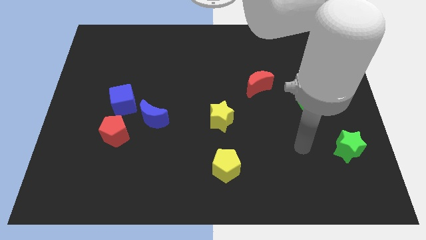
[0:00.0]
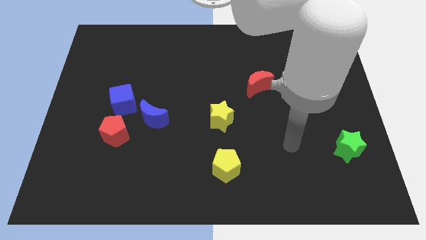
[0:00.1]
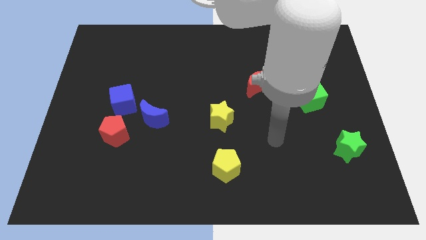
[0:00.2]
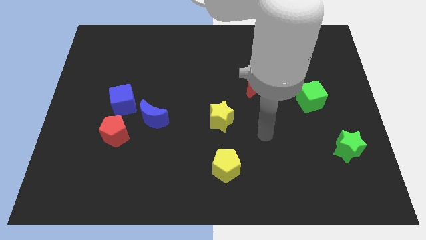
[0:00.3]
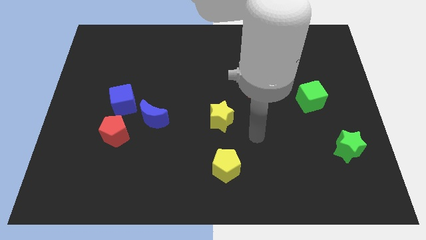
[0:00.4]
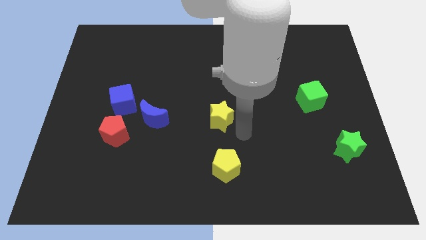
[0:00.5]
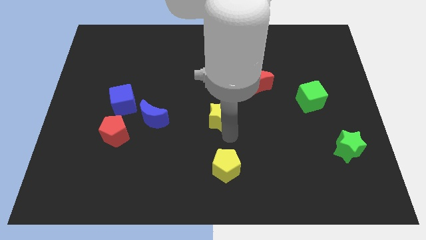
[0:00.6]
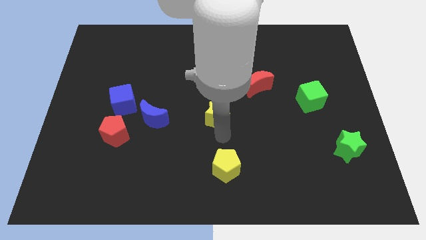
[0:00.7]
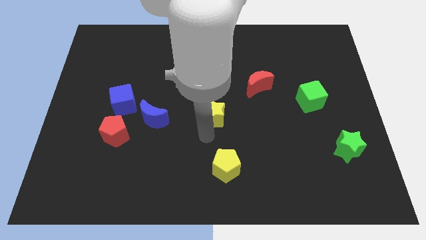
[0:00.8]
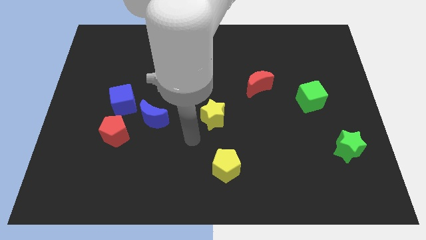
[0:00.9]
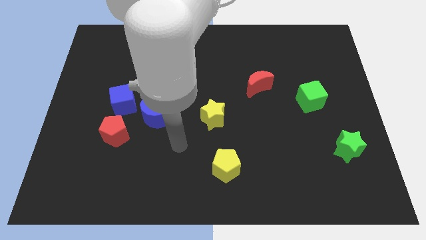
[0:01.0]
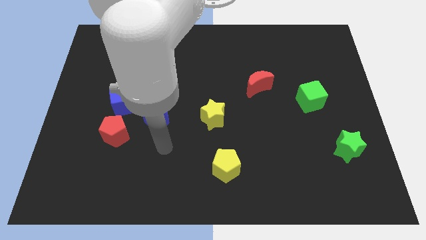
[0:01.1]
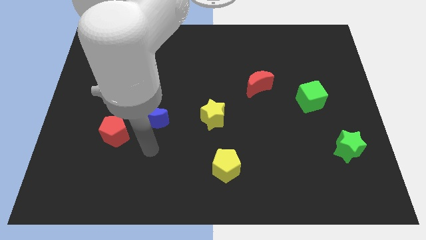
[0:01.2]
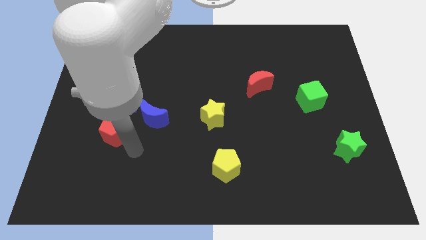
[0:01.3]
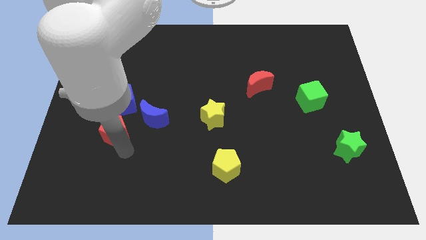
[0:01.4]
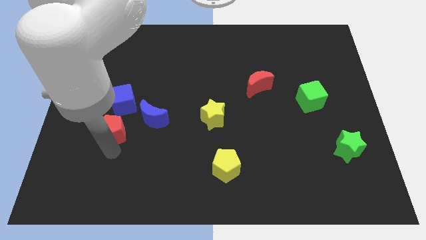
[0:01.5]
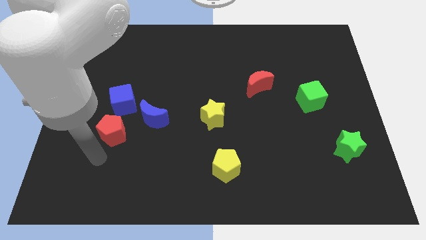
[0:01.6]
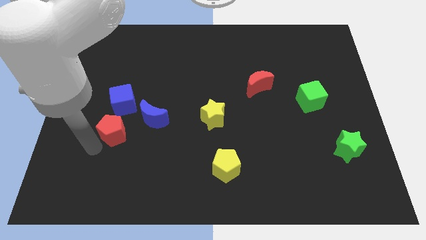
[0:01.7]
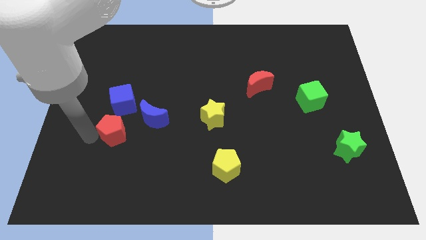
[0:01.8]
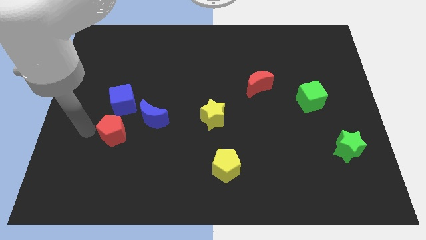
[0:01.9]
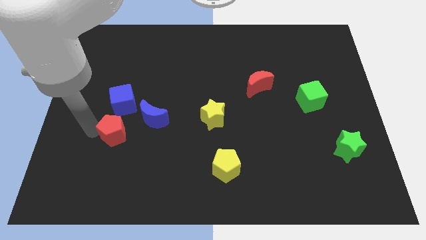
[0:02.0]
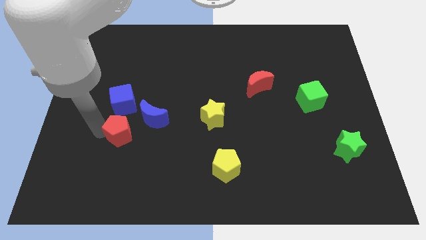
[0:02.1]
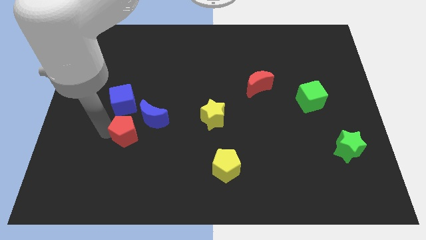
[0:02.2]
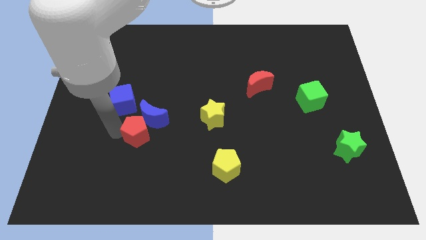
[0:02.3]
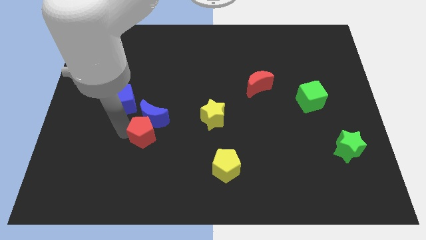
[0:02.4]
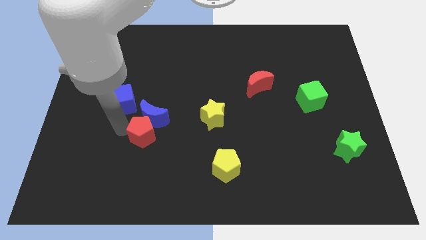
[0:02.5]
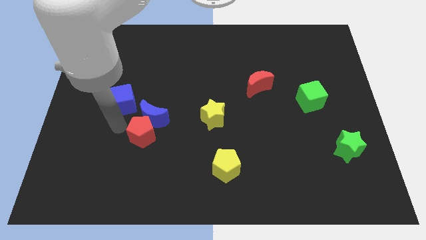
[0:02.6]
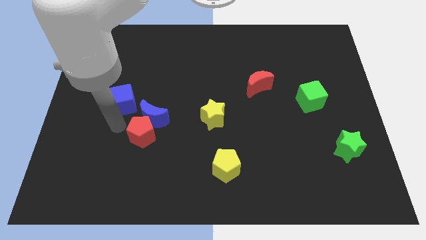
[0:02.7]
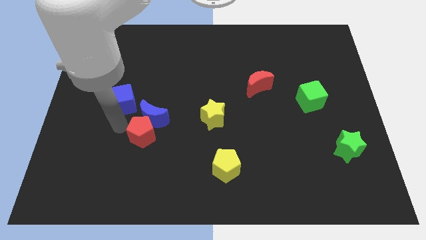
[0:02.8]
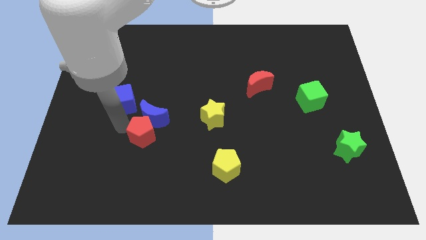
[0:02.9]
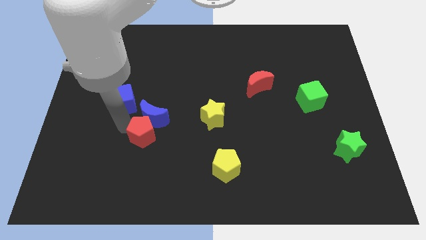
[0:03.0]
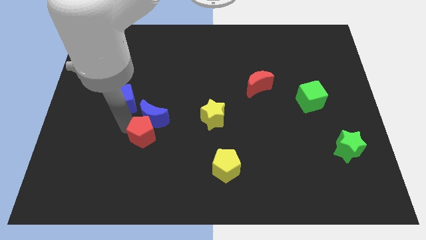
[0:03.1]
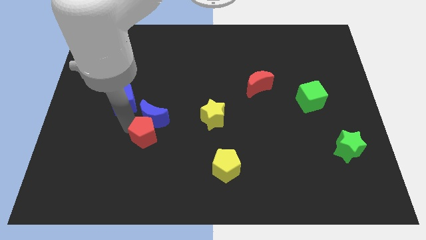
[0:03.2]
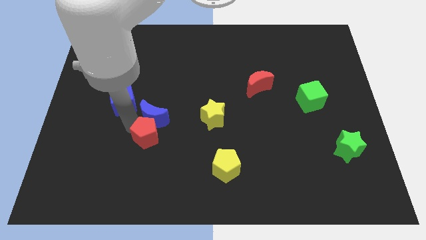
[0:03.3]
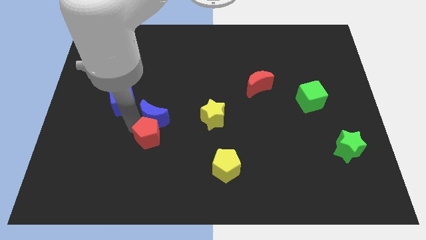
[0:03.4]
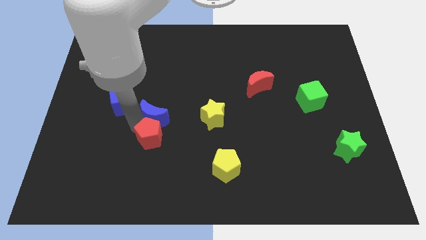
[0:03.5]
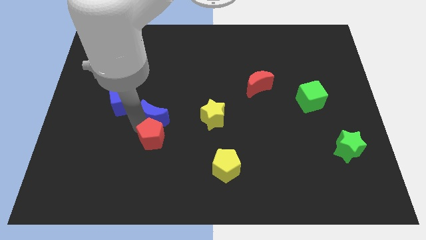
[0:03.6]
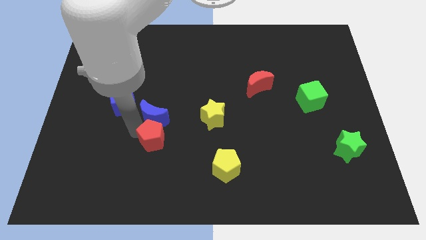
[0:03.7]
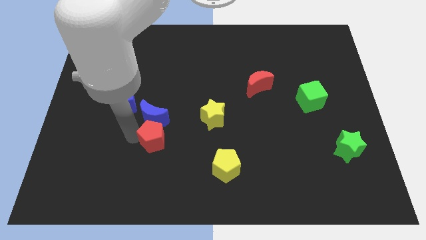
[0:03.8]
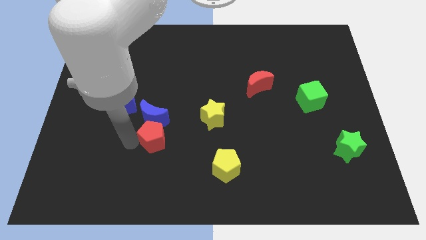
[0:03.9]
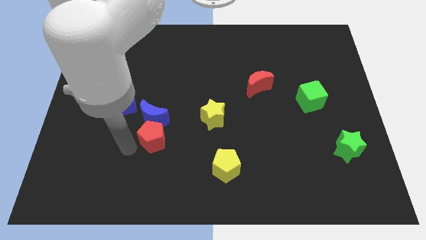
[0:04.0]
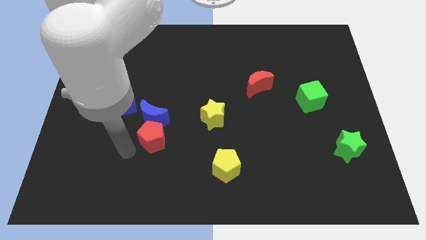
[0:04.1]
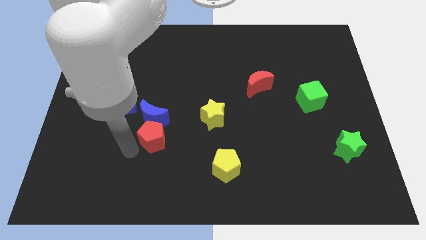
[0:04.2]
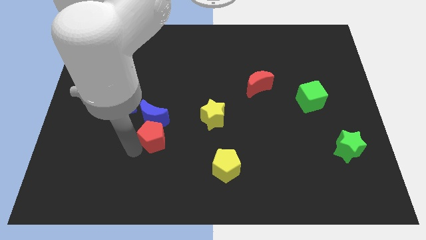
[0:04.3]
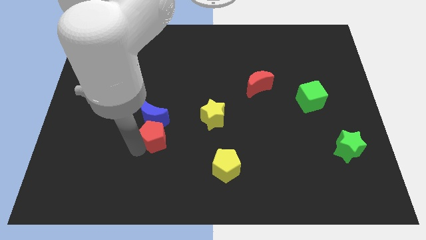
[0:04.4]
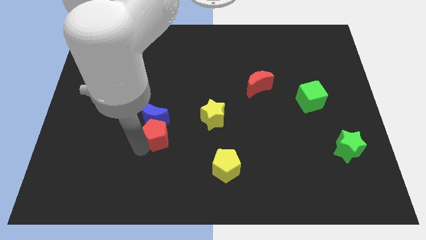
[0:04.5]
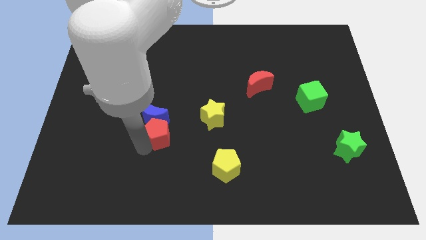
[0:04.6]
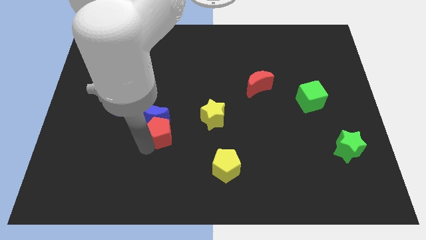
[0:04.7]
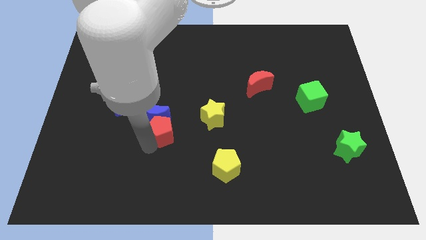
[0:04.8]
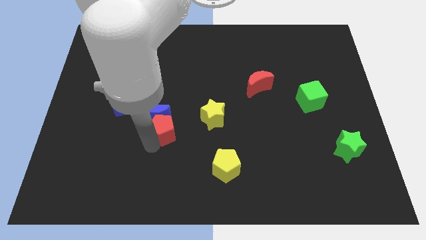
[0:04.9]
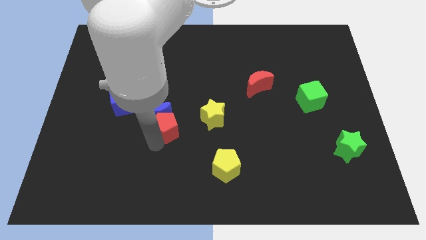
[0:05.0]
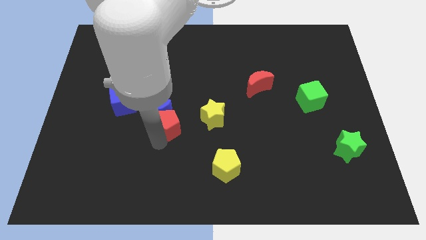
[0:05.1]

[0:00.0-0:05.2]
slide the red pentagon to the middle

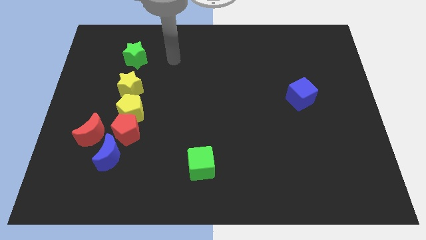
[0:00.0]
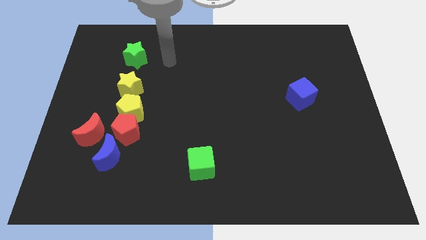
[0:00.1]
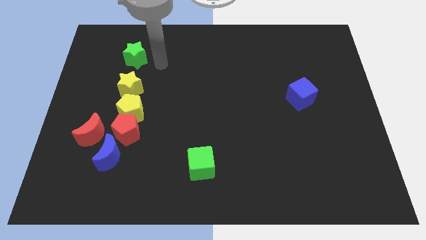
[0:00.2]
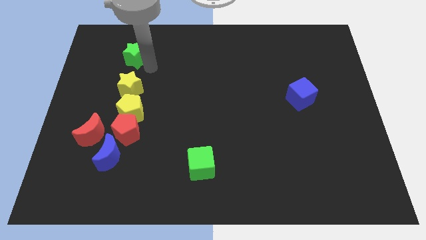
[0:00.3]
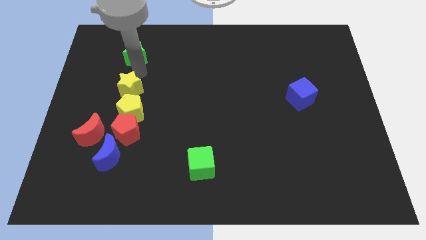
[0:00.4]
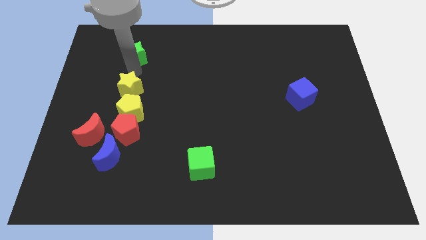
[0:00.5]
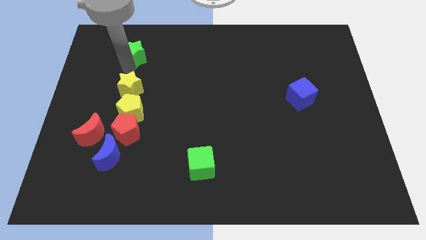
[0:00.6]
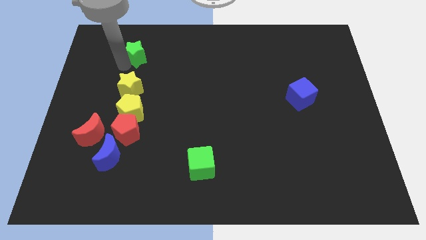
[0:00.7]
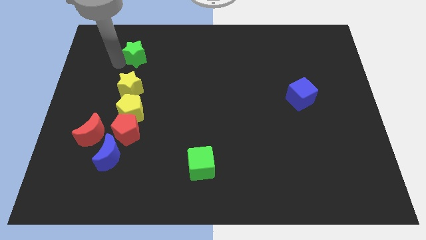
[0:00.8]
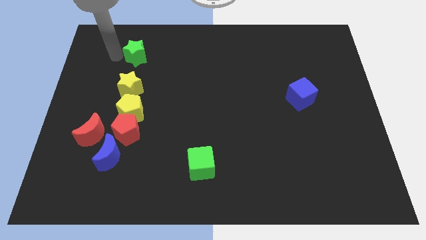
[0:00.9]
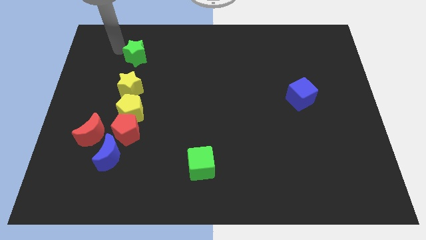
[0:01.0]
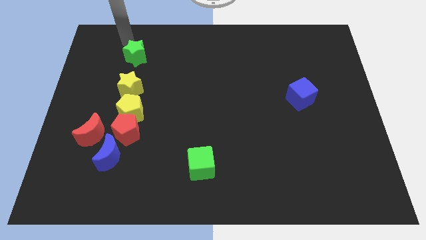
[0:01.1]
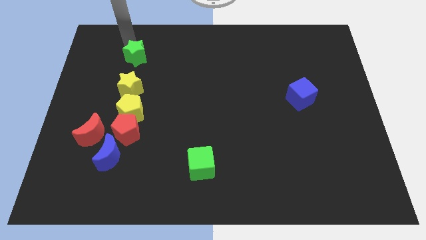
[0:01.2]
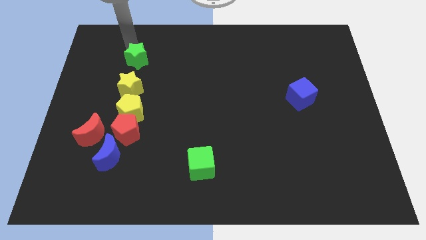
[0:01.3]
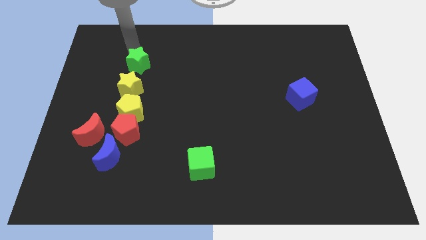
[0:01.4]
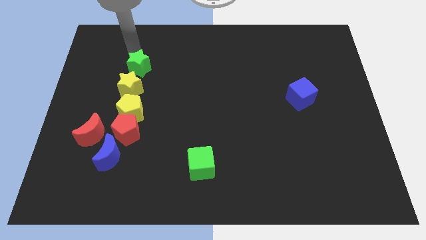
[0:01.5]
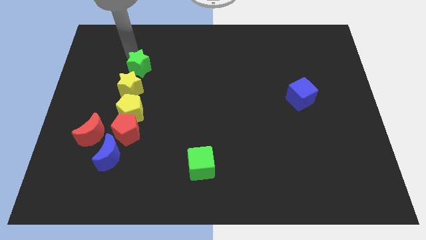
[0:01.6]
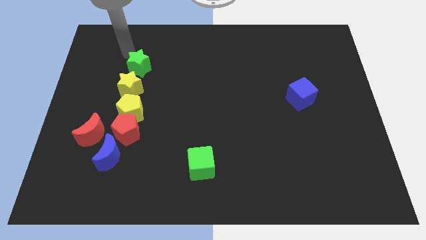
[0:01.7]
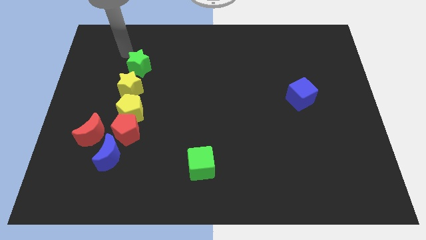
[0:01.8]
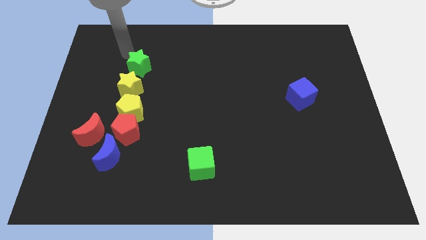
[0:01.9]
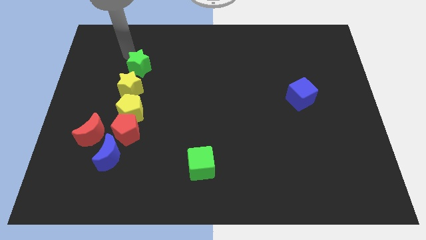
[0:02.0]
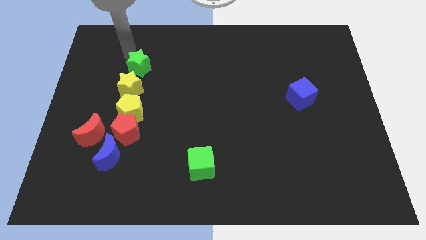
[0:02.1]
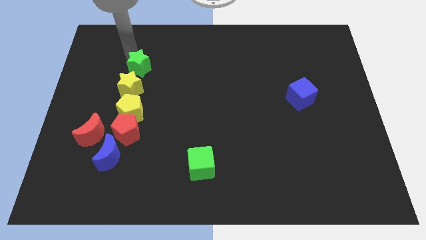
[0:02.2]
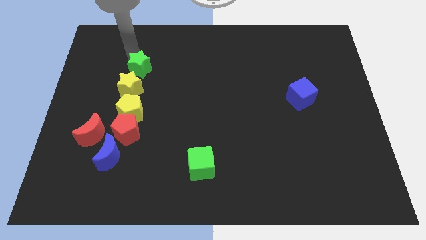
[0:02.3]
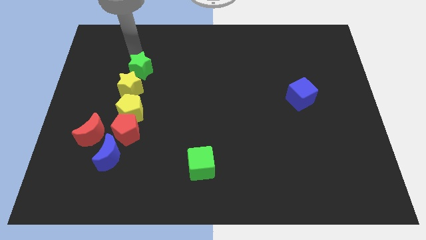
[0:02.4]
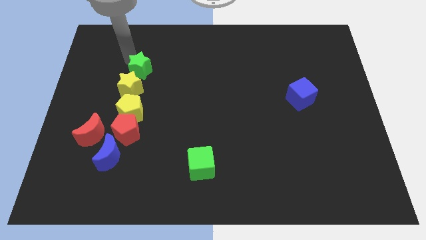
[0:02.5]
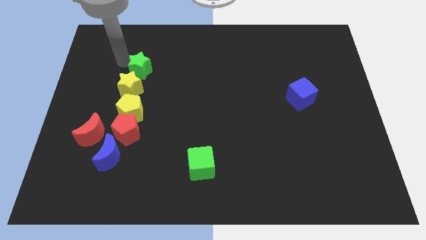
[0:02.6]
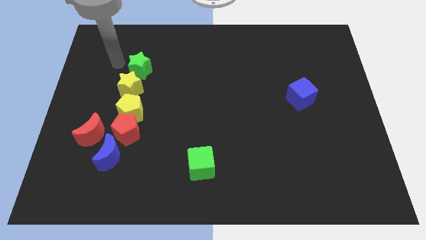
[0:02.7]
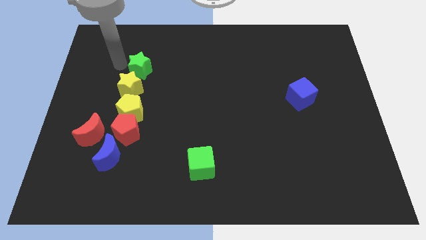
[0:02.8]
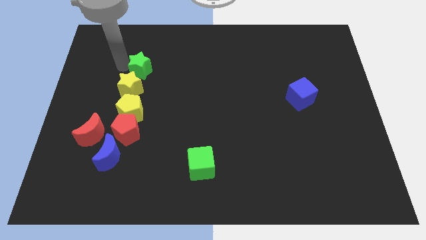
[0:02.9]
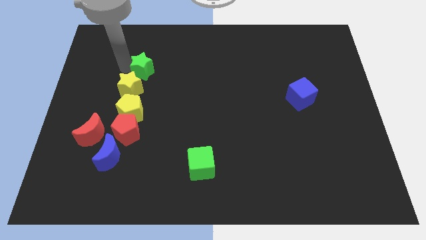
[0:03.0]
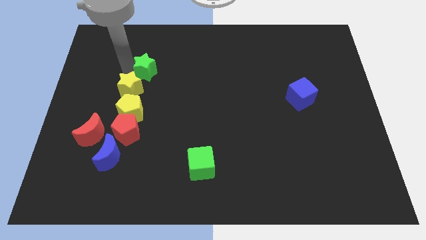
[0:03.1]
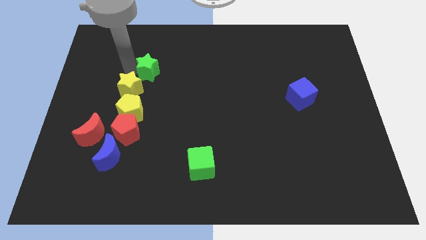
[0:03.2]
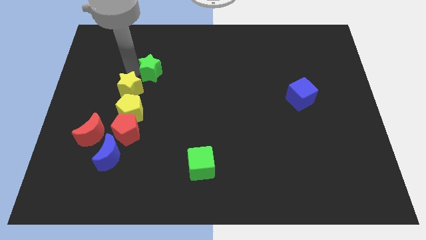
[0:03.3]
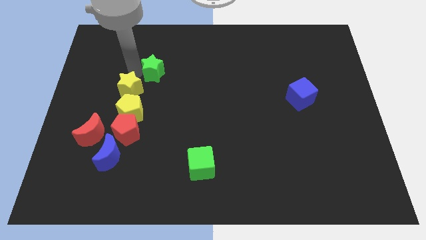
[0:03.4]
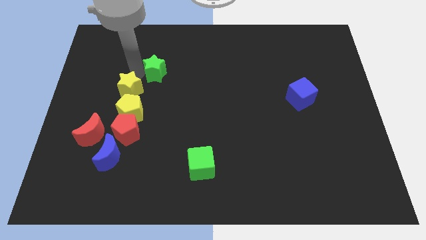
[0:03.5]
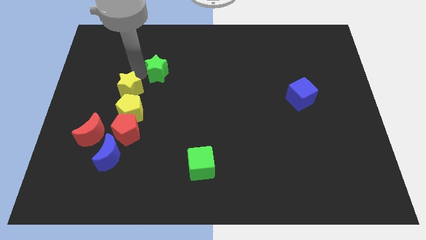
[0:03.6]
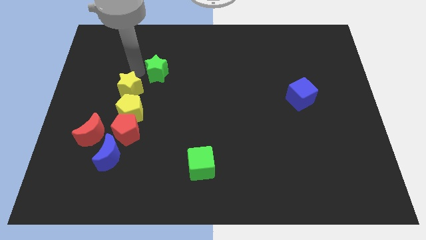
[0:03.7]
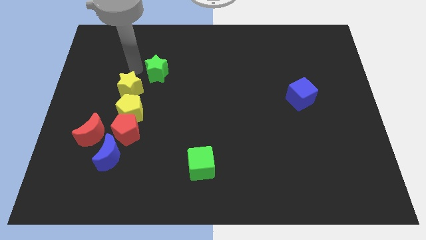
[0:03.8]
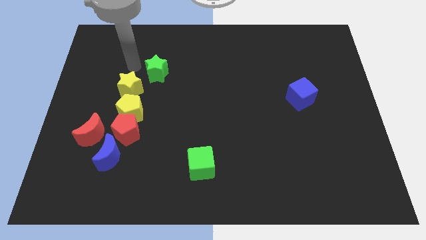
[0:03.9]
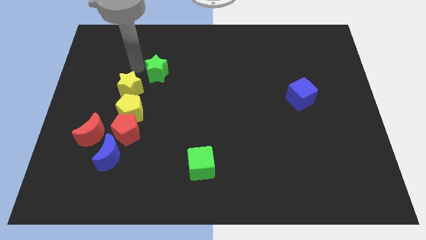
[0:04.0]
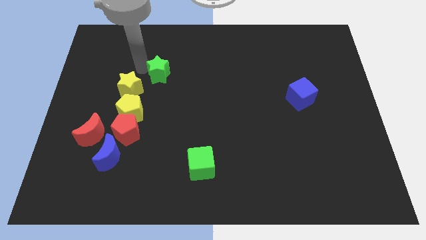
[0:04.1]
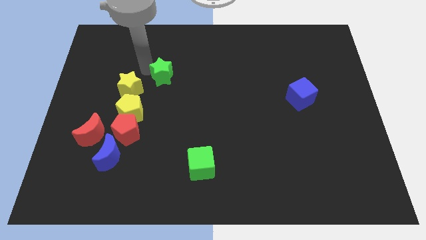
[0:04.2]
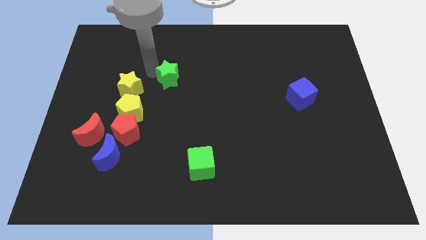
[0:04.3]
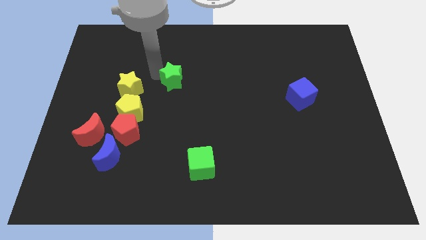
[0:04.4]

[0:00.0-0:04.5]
move the green star to the center of the board
